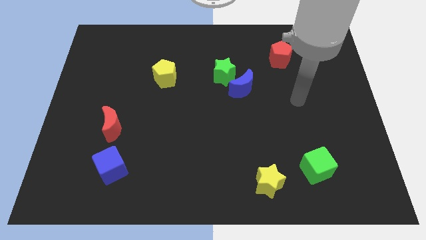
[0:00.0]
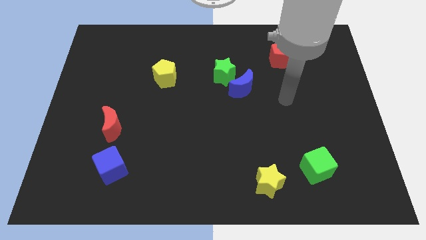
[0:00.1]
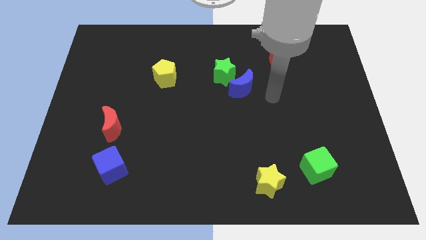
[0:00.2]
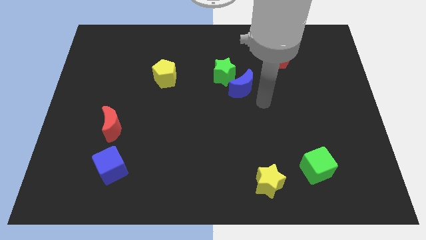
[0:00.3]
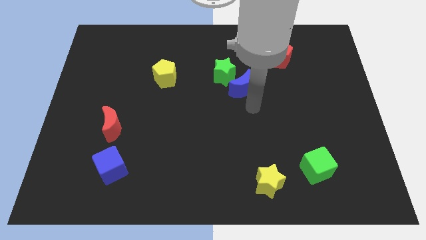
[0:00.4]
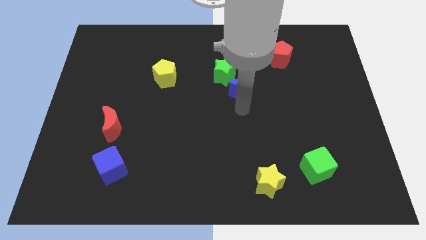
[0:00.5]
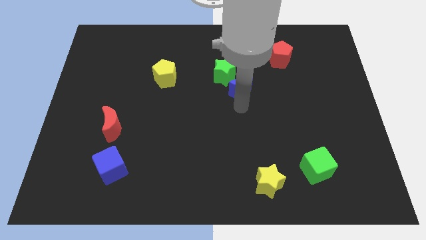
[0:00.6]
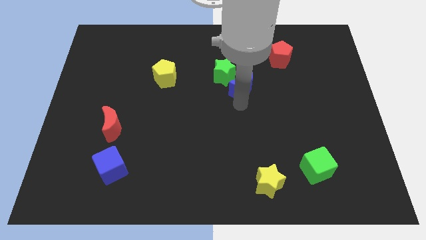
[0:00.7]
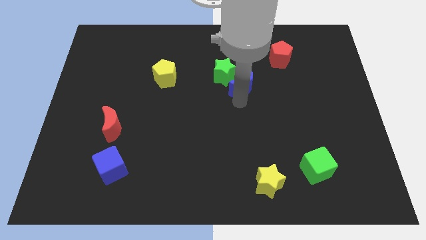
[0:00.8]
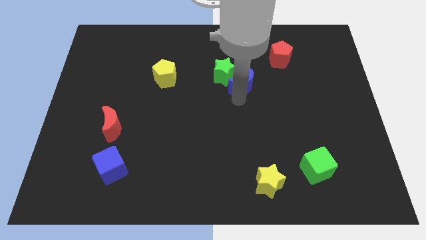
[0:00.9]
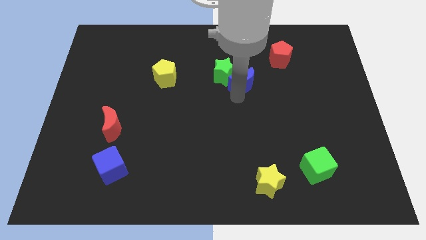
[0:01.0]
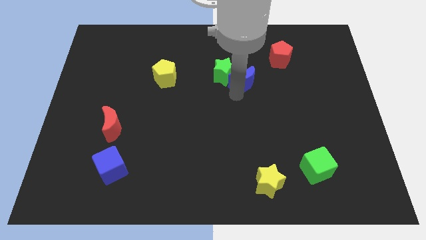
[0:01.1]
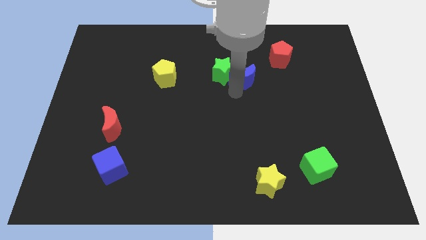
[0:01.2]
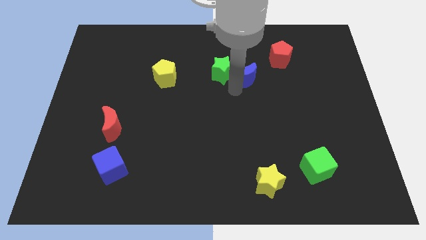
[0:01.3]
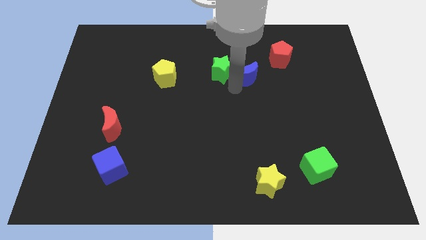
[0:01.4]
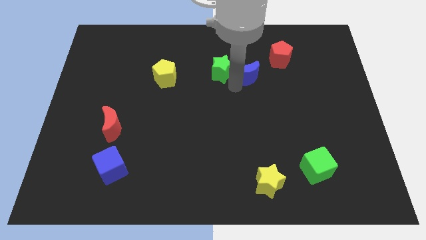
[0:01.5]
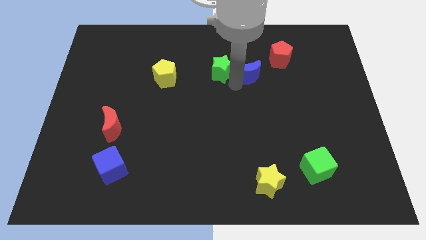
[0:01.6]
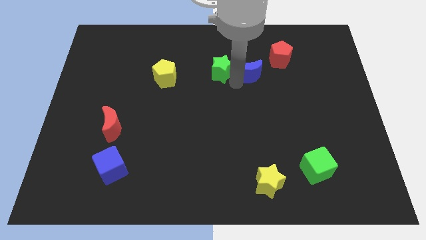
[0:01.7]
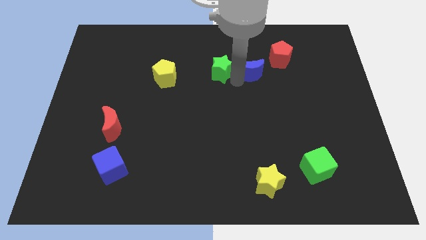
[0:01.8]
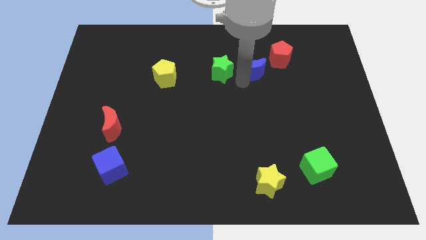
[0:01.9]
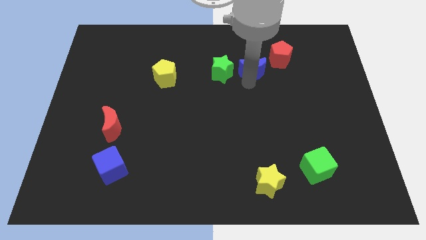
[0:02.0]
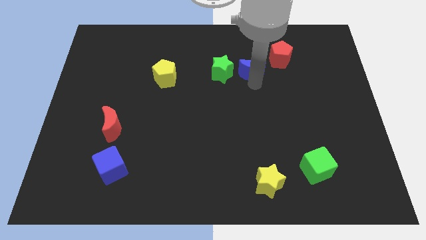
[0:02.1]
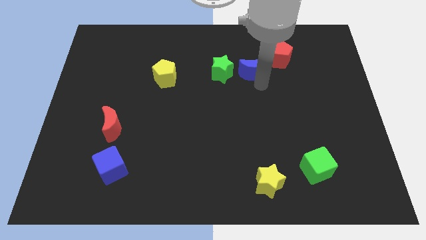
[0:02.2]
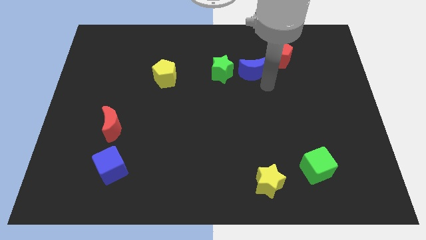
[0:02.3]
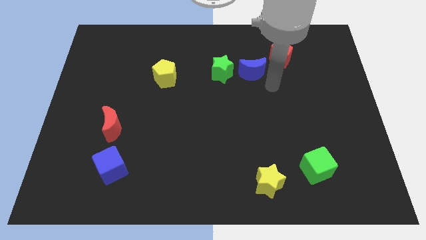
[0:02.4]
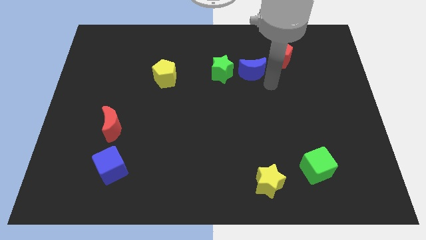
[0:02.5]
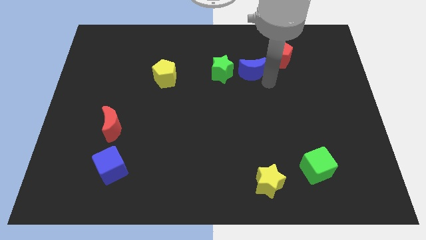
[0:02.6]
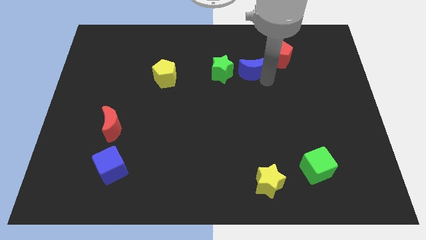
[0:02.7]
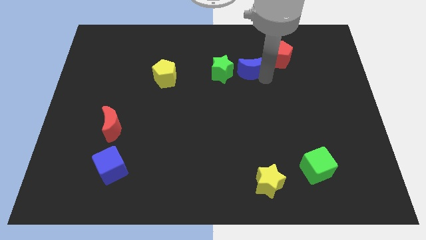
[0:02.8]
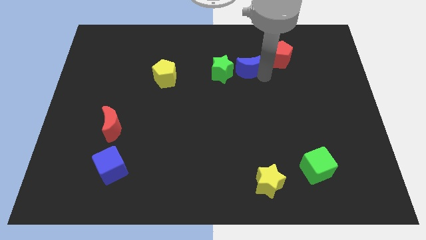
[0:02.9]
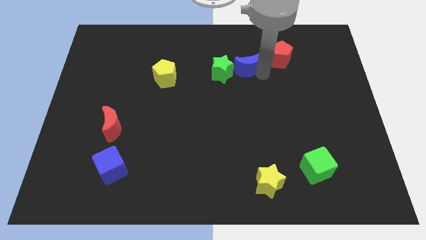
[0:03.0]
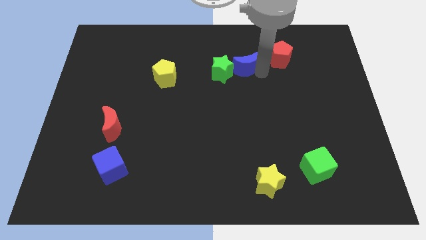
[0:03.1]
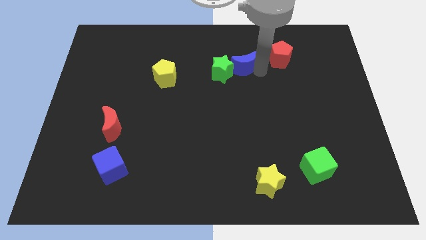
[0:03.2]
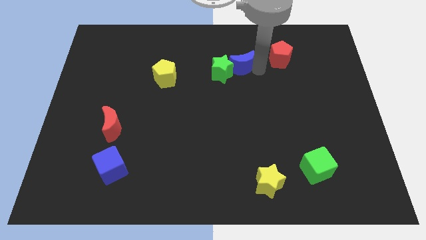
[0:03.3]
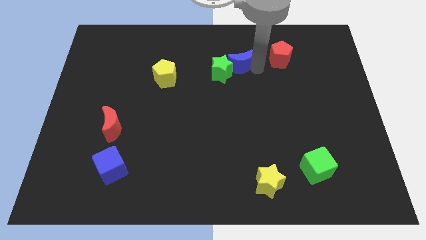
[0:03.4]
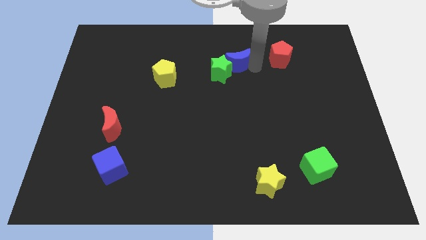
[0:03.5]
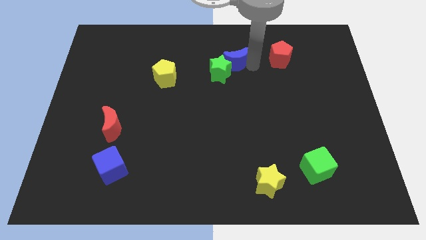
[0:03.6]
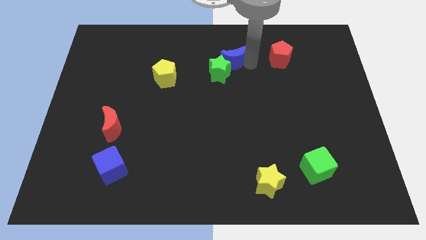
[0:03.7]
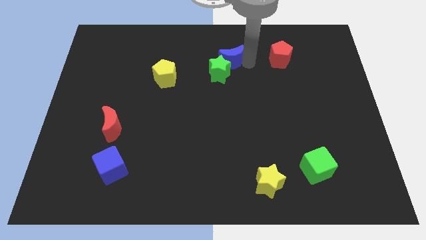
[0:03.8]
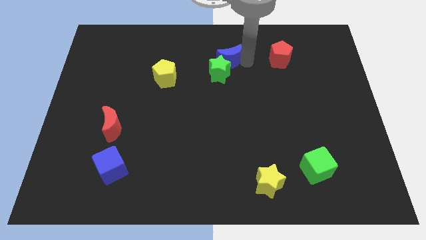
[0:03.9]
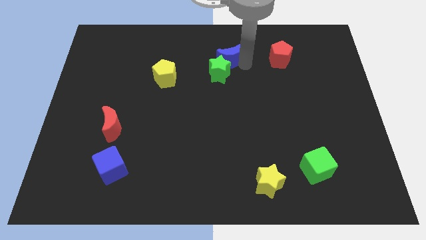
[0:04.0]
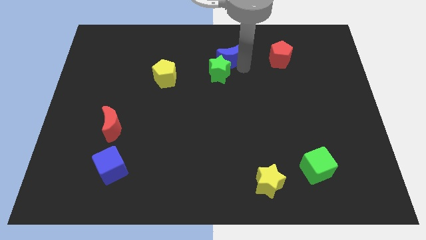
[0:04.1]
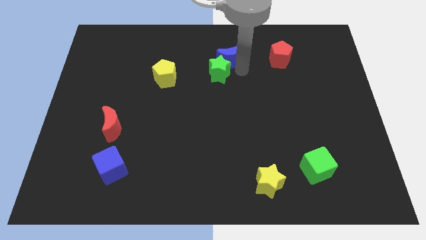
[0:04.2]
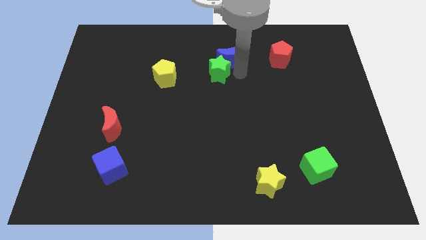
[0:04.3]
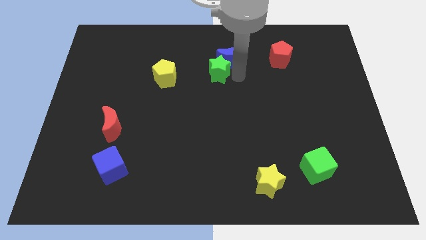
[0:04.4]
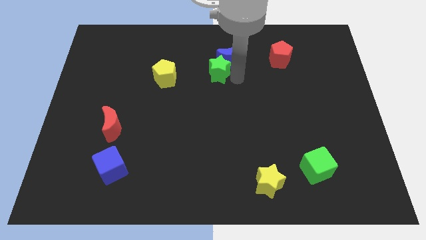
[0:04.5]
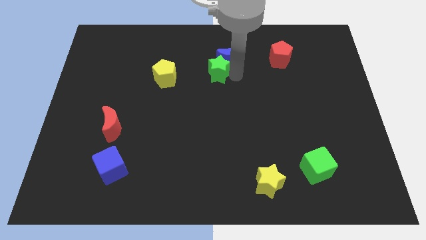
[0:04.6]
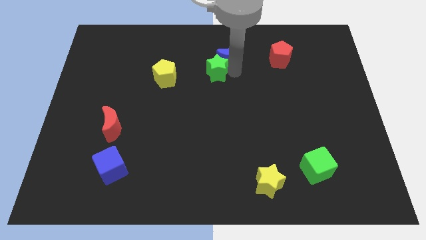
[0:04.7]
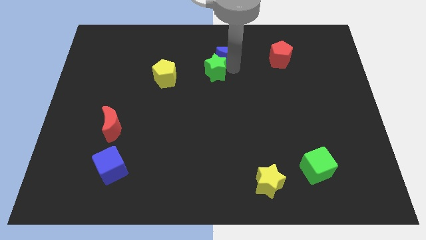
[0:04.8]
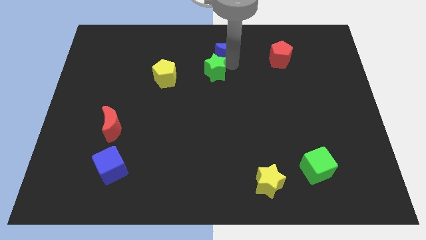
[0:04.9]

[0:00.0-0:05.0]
put the blue moon to the towards your base

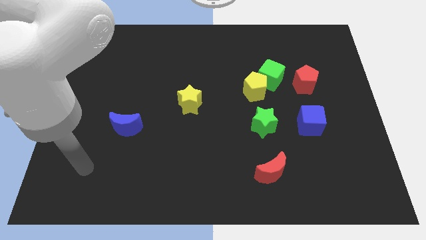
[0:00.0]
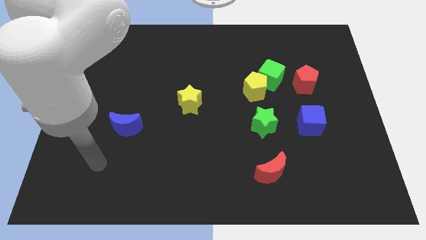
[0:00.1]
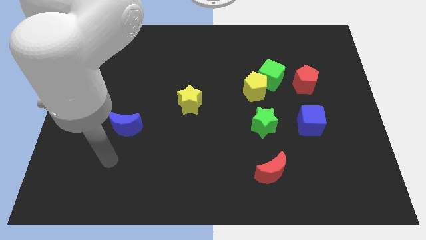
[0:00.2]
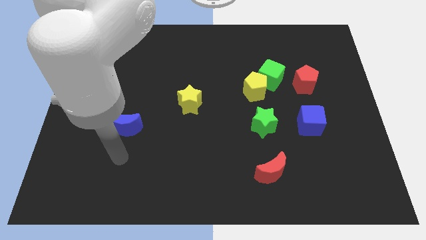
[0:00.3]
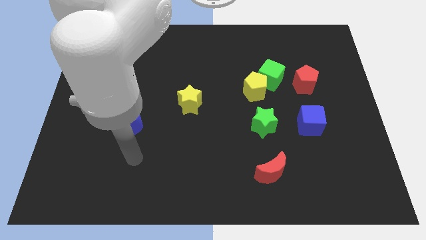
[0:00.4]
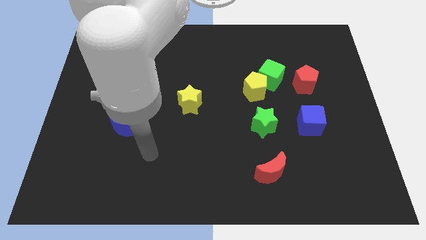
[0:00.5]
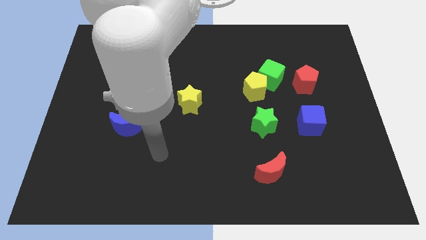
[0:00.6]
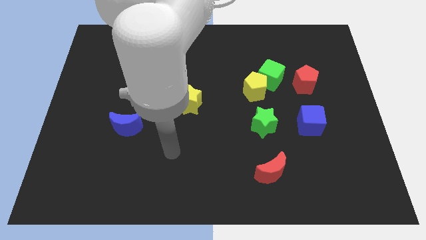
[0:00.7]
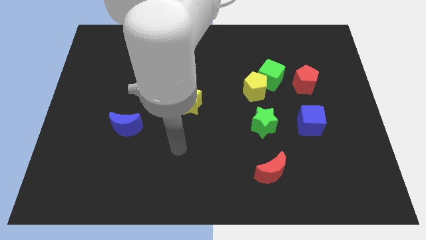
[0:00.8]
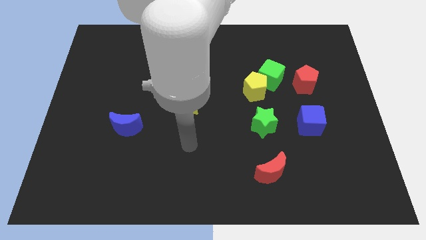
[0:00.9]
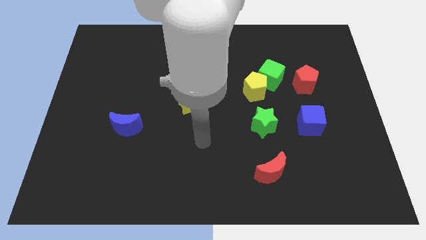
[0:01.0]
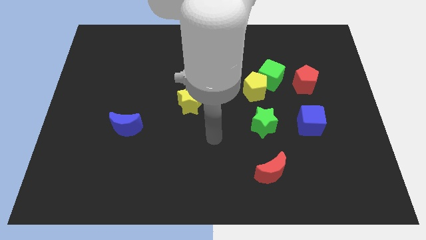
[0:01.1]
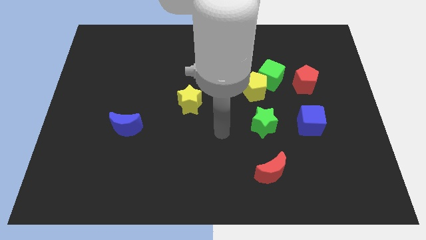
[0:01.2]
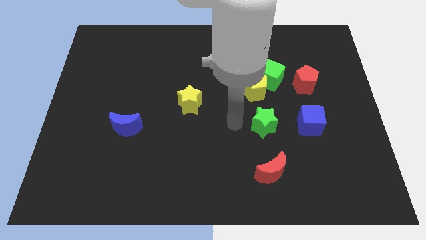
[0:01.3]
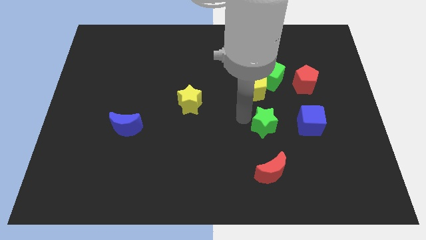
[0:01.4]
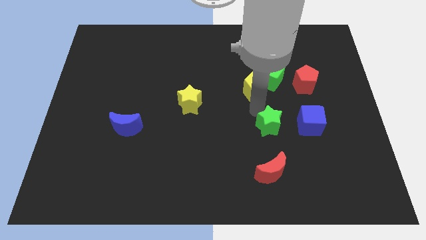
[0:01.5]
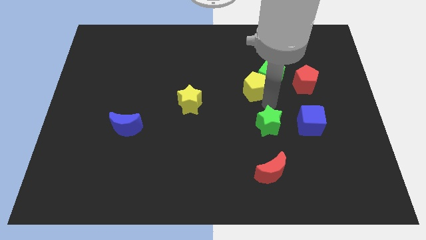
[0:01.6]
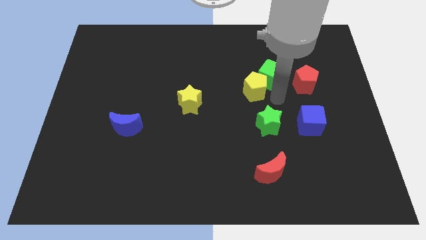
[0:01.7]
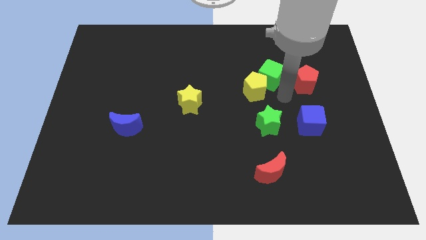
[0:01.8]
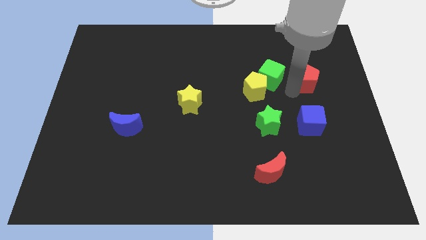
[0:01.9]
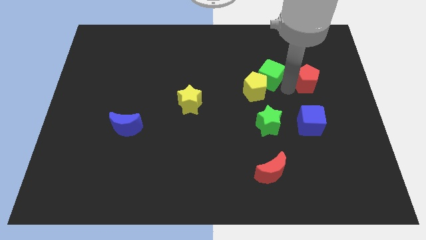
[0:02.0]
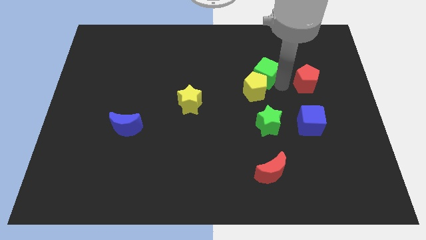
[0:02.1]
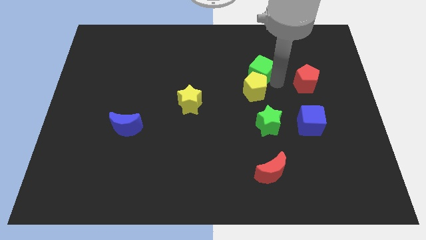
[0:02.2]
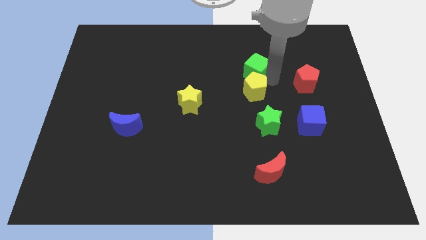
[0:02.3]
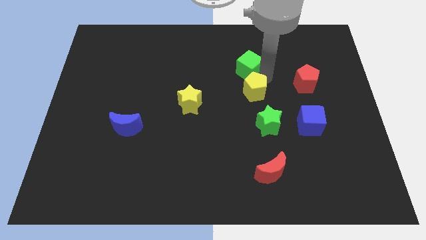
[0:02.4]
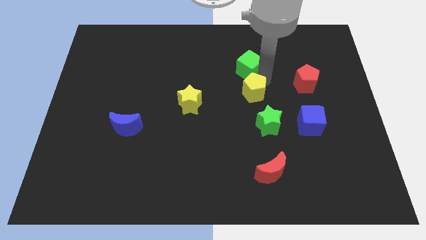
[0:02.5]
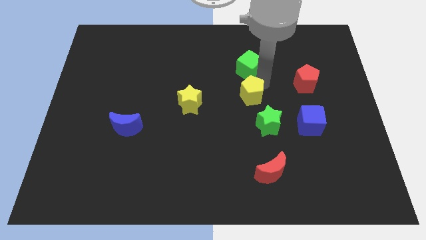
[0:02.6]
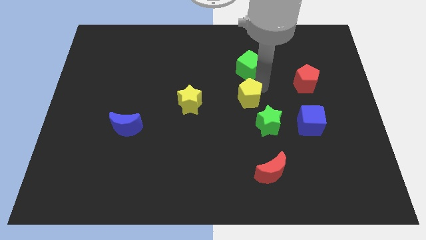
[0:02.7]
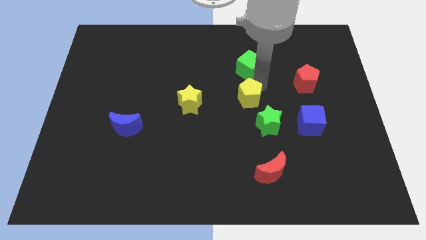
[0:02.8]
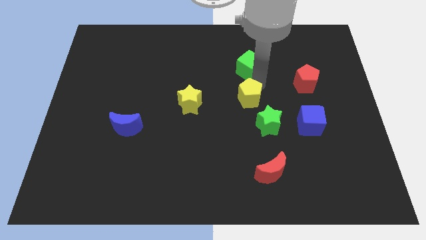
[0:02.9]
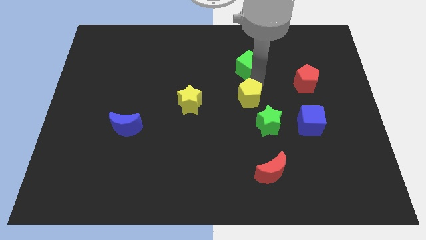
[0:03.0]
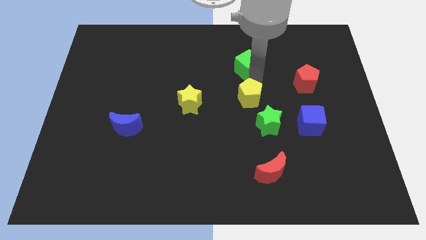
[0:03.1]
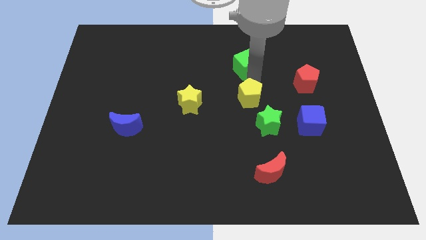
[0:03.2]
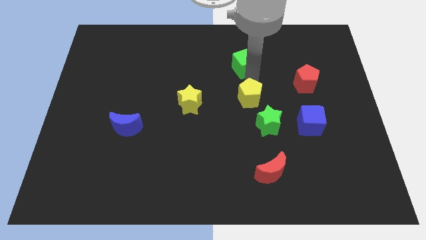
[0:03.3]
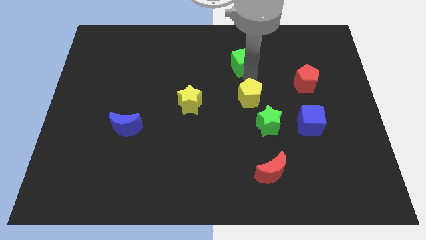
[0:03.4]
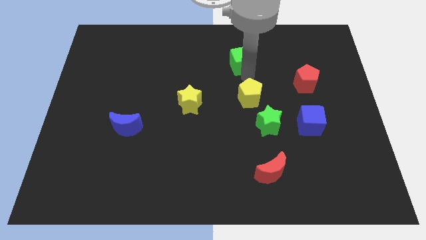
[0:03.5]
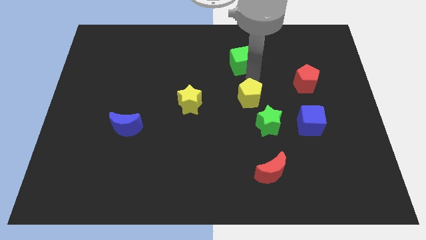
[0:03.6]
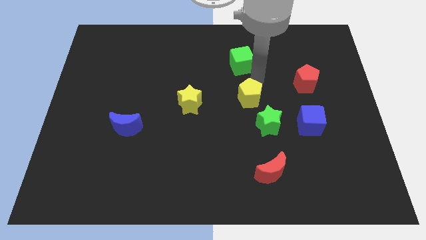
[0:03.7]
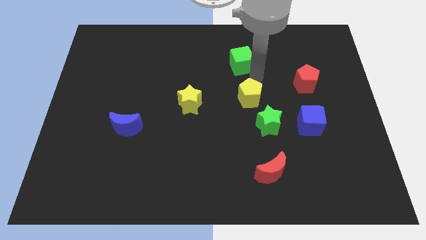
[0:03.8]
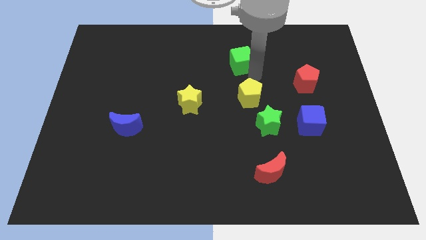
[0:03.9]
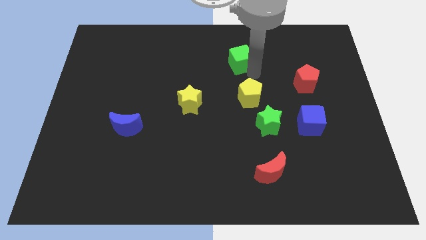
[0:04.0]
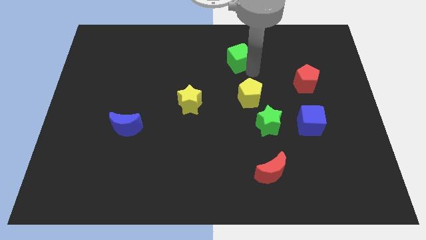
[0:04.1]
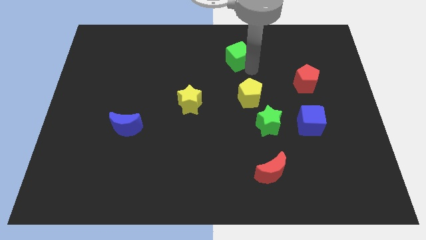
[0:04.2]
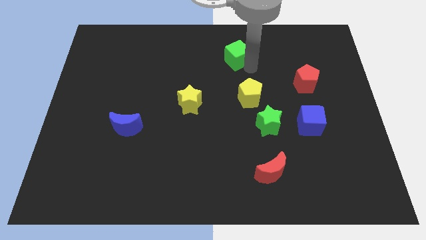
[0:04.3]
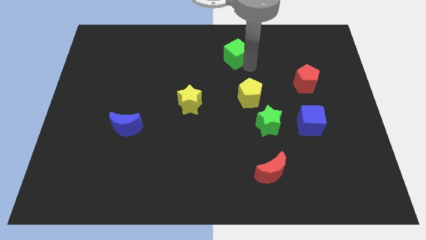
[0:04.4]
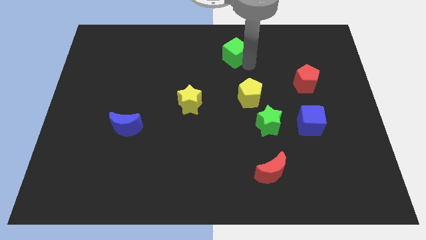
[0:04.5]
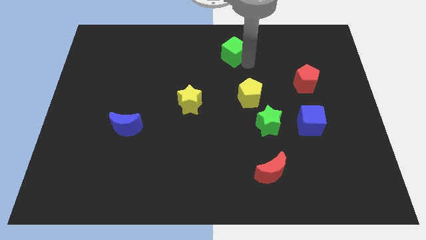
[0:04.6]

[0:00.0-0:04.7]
slide the green cube to the towards your base
